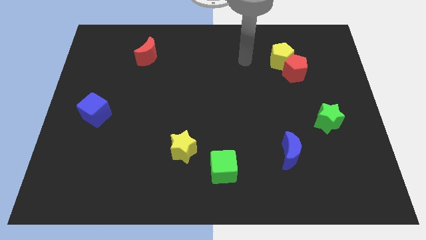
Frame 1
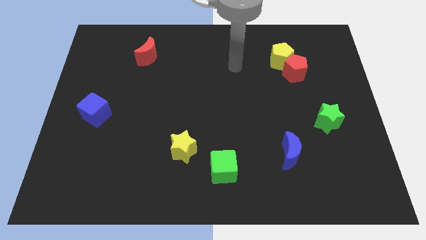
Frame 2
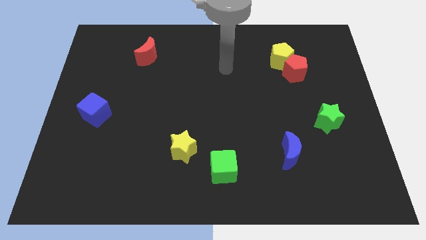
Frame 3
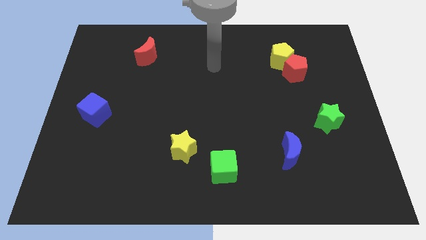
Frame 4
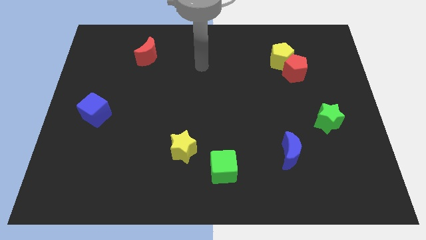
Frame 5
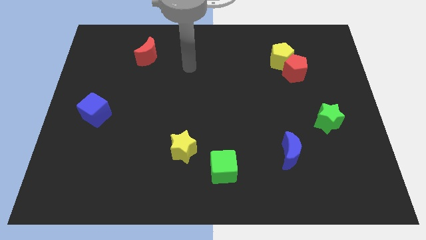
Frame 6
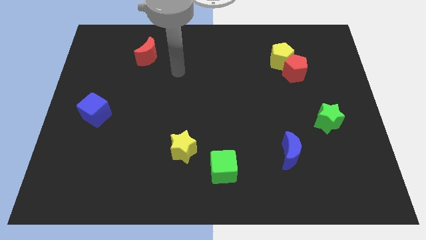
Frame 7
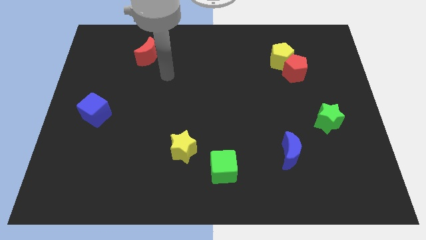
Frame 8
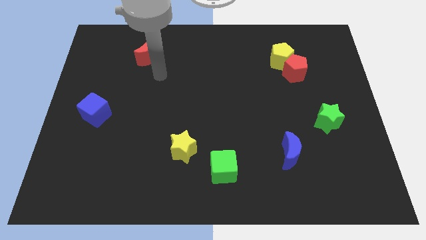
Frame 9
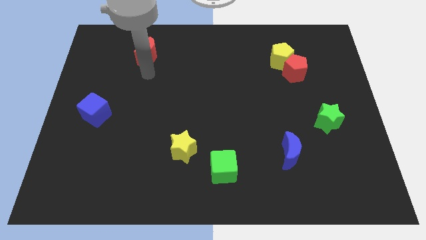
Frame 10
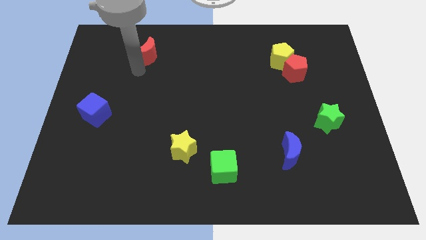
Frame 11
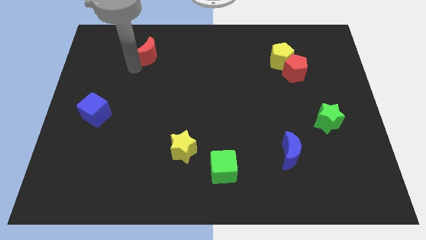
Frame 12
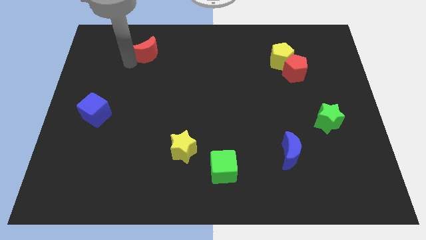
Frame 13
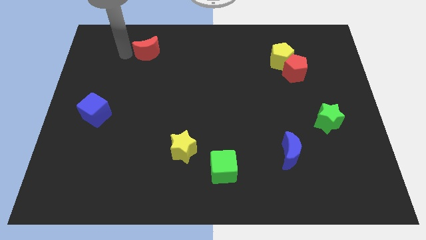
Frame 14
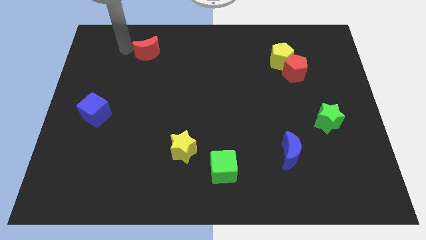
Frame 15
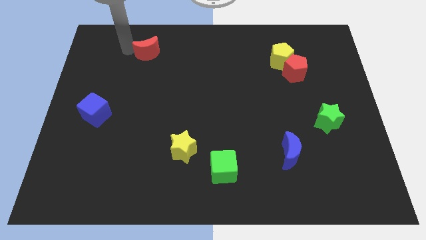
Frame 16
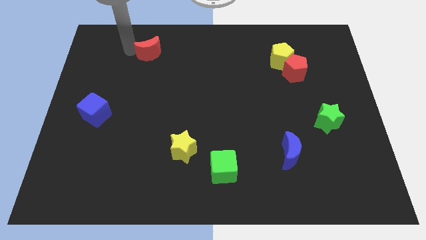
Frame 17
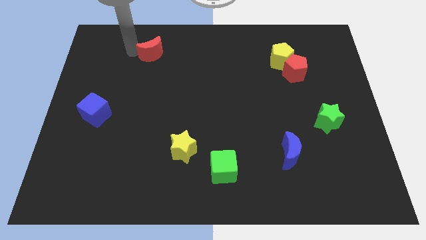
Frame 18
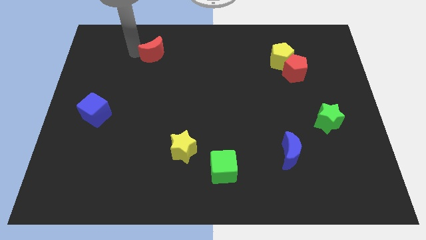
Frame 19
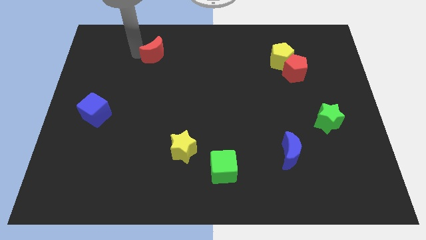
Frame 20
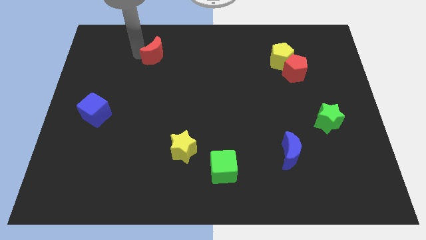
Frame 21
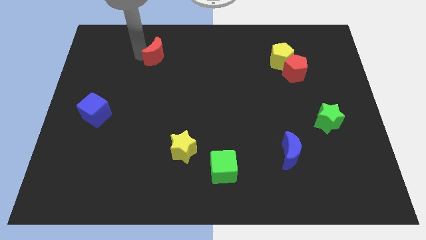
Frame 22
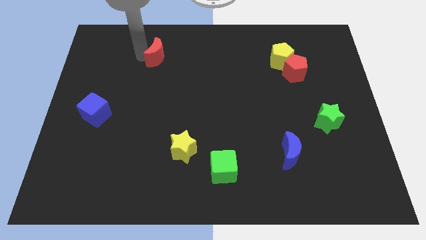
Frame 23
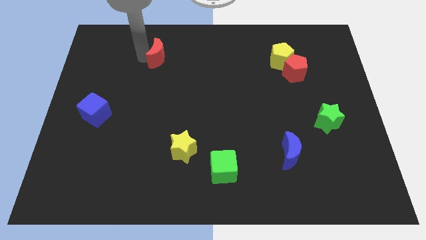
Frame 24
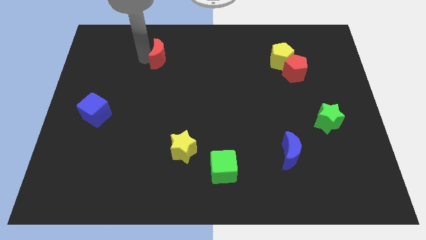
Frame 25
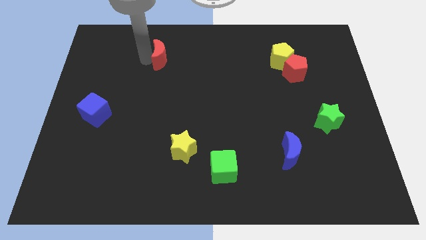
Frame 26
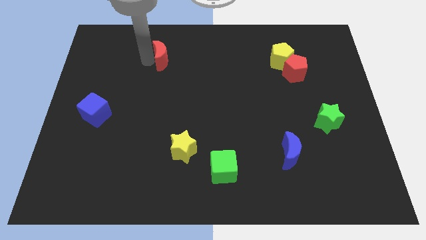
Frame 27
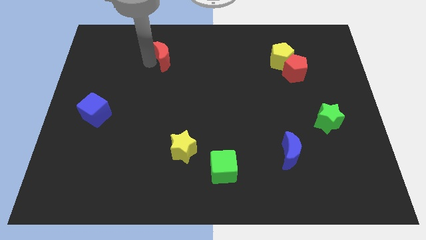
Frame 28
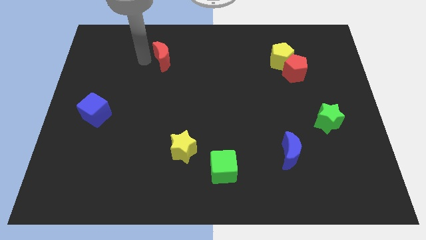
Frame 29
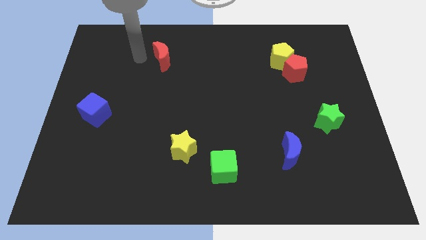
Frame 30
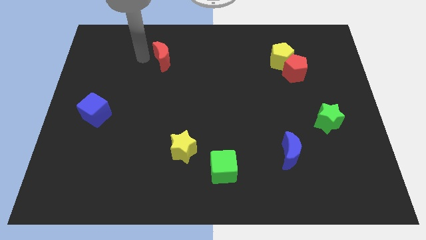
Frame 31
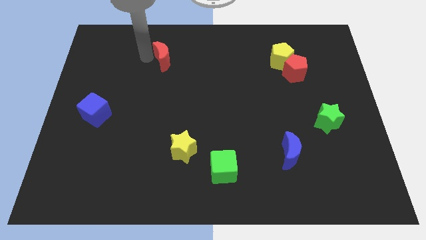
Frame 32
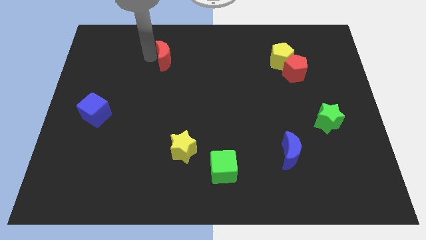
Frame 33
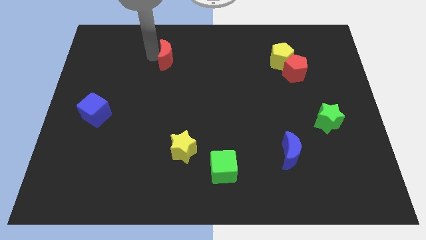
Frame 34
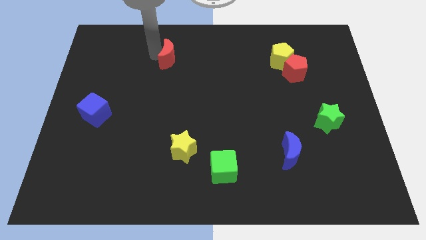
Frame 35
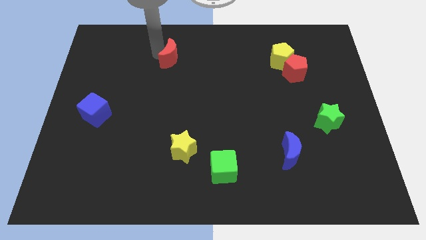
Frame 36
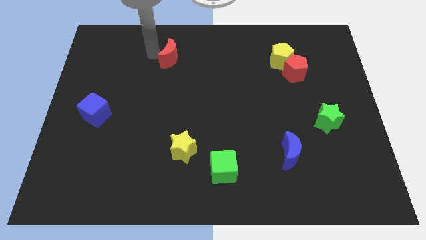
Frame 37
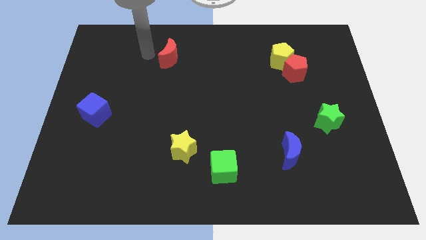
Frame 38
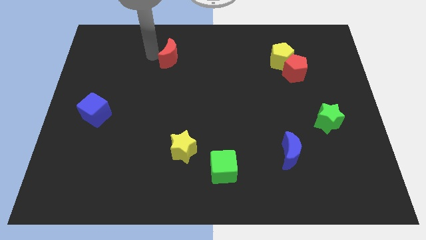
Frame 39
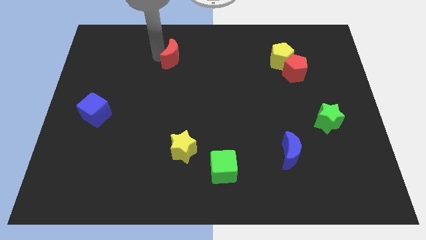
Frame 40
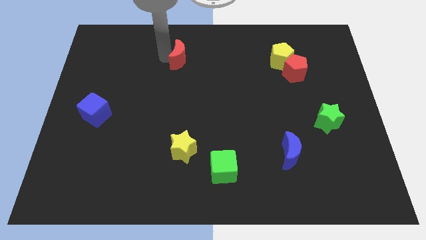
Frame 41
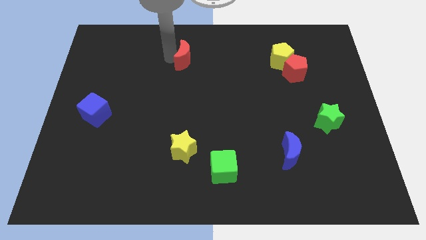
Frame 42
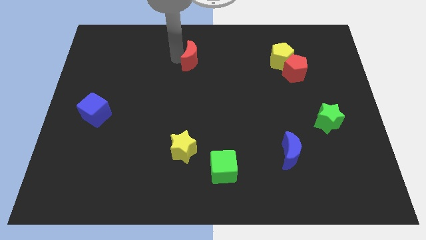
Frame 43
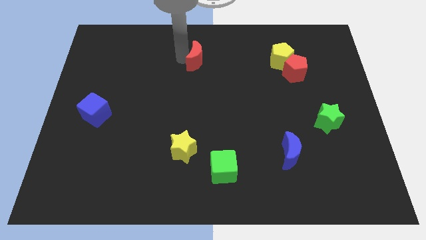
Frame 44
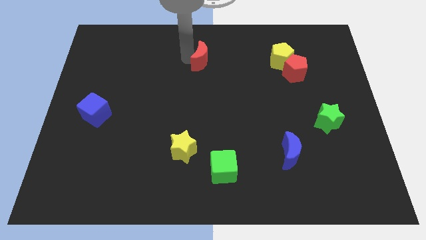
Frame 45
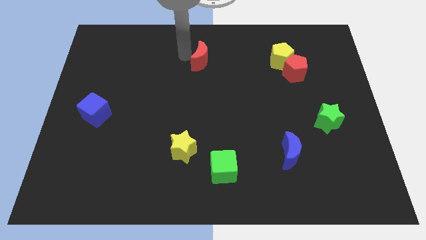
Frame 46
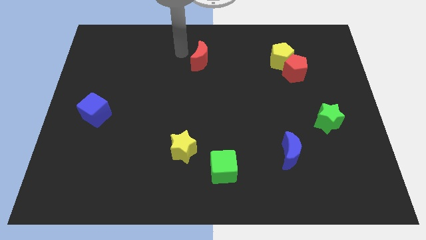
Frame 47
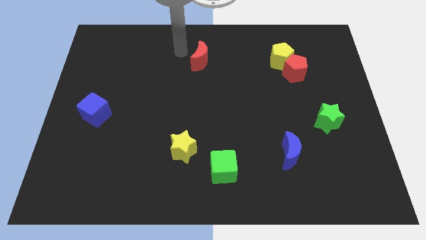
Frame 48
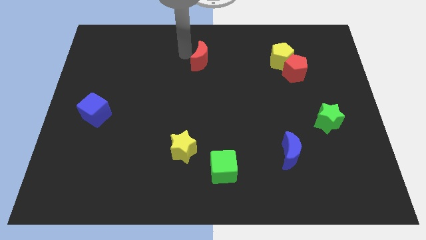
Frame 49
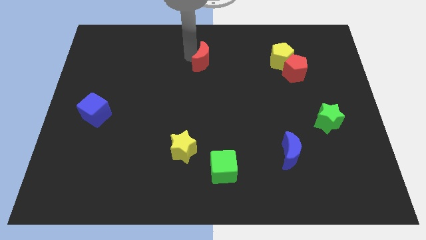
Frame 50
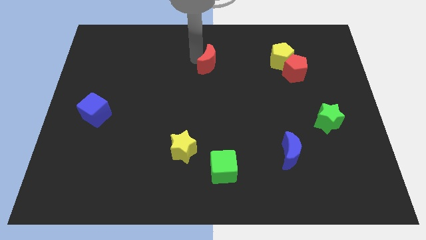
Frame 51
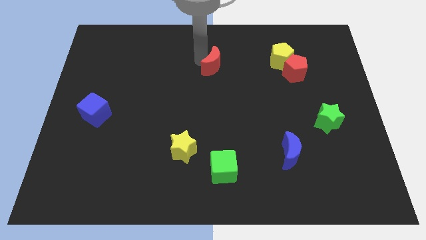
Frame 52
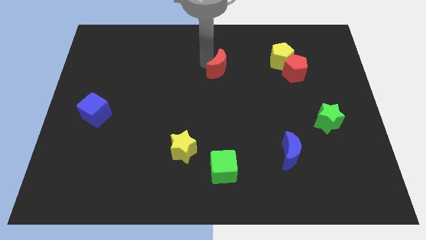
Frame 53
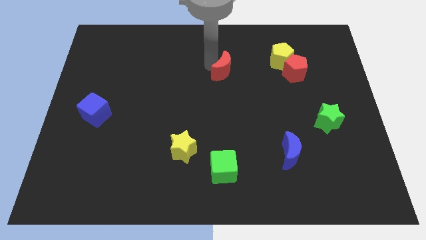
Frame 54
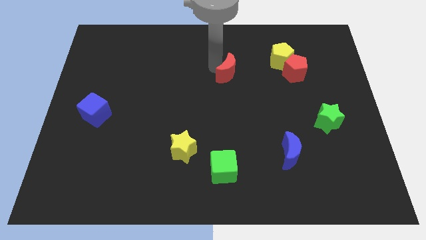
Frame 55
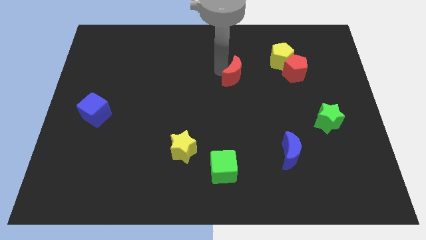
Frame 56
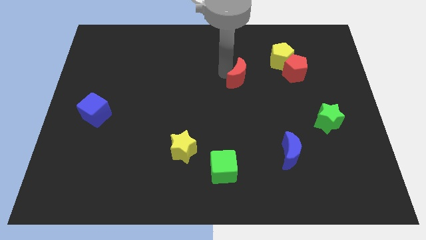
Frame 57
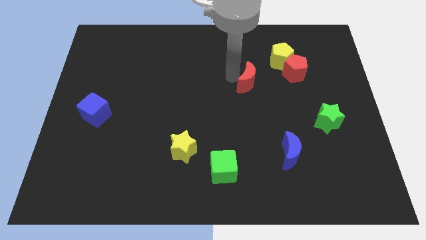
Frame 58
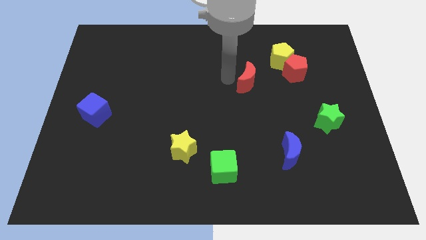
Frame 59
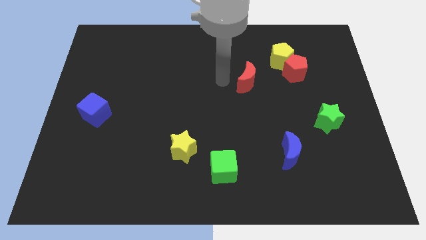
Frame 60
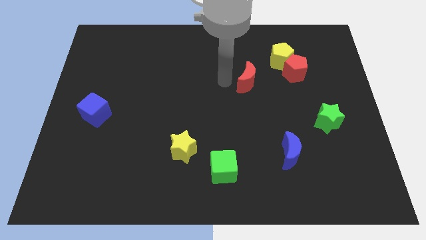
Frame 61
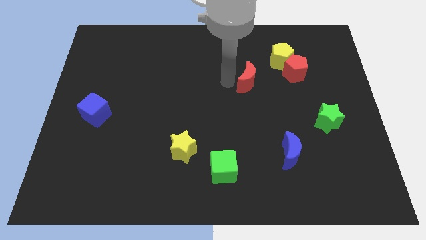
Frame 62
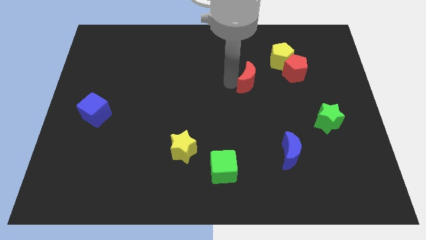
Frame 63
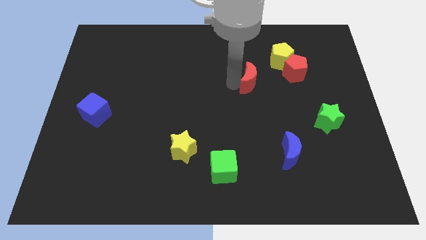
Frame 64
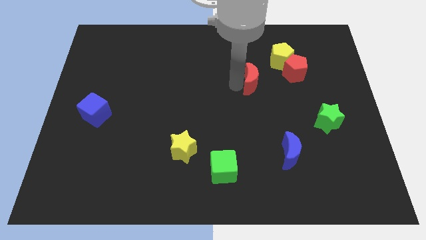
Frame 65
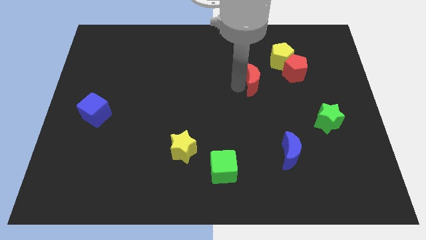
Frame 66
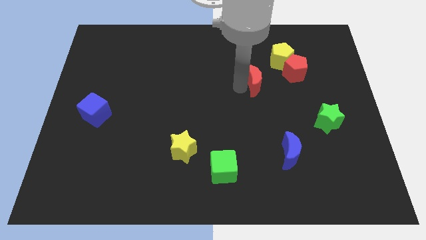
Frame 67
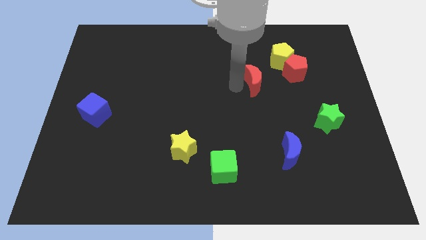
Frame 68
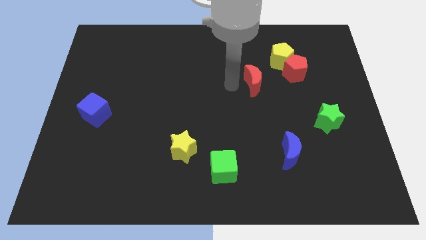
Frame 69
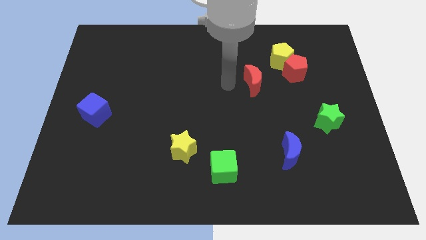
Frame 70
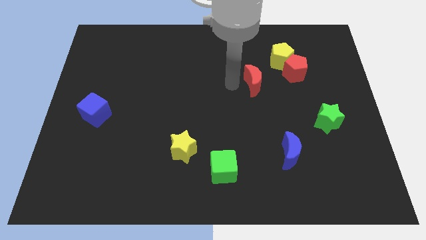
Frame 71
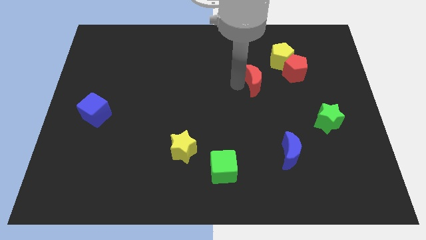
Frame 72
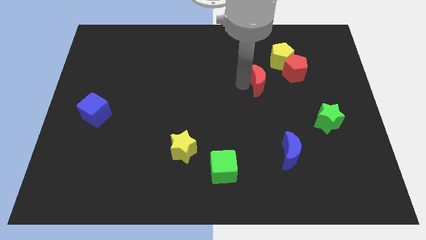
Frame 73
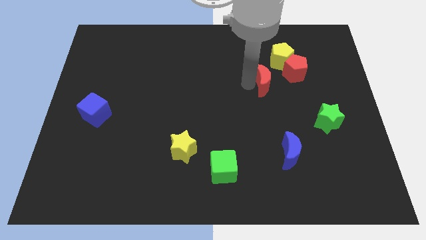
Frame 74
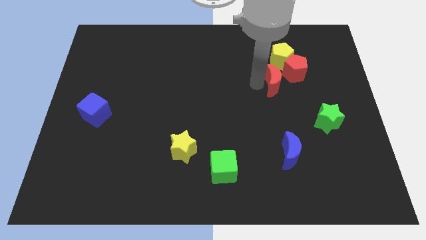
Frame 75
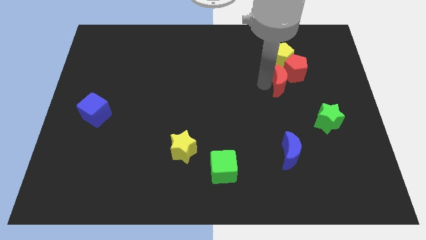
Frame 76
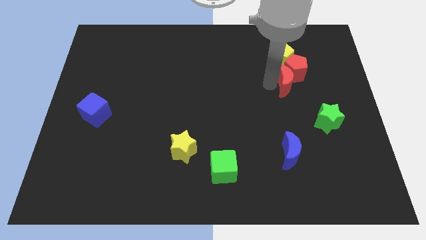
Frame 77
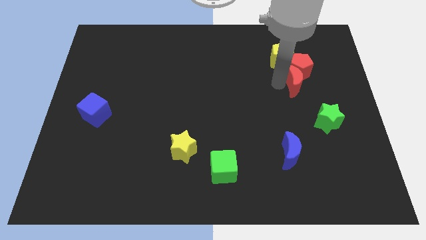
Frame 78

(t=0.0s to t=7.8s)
slide the red moon diagonally down and to the right of the yellow pentagon
